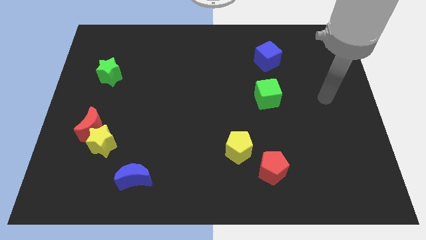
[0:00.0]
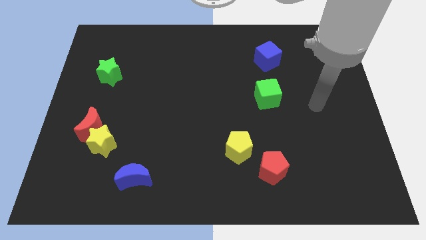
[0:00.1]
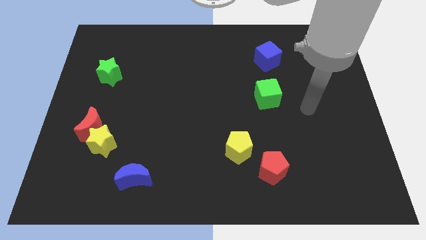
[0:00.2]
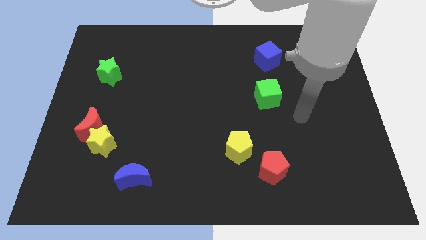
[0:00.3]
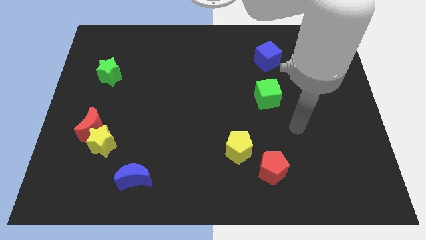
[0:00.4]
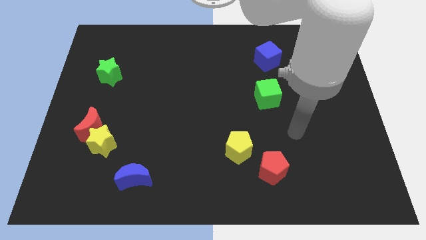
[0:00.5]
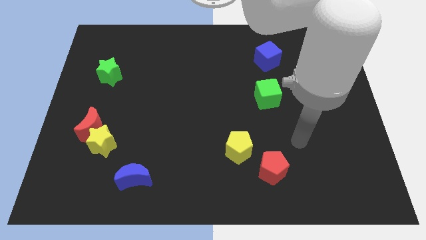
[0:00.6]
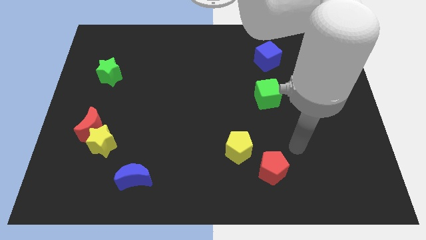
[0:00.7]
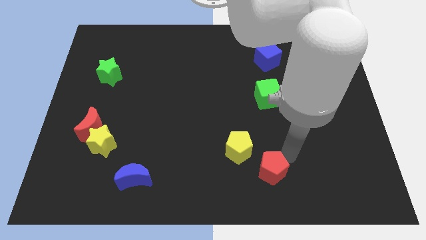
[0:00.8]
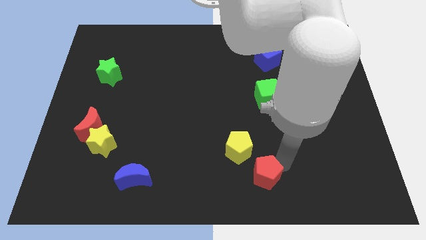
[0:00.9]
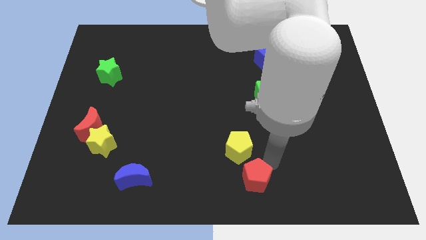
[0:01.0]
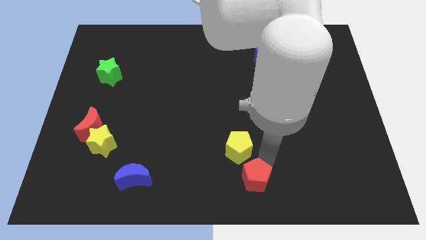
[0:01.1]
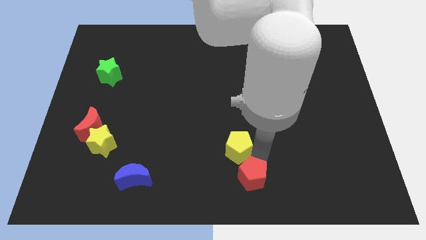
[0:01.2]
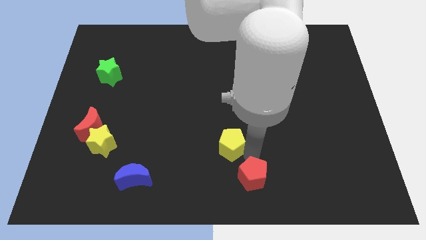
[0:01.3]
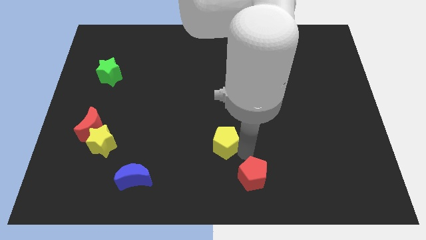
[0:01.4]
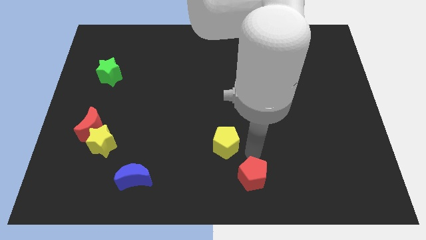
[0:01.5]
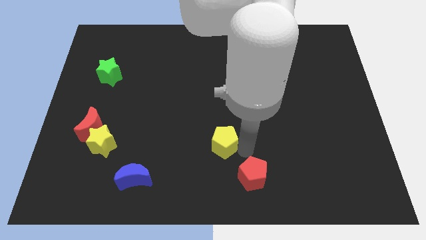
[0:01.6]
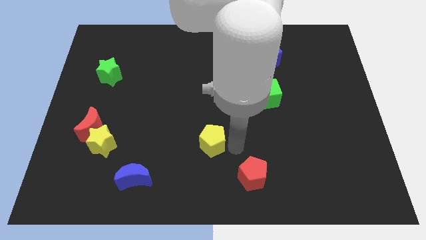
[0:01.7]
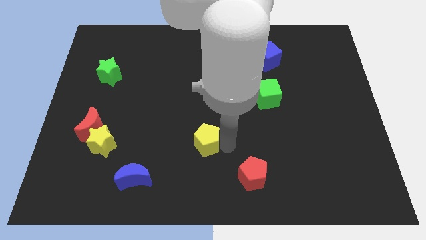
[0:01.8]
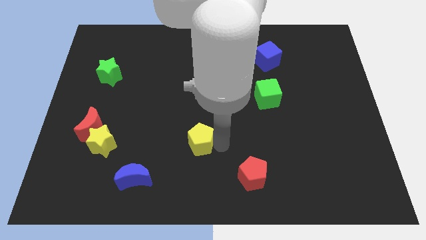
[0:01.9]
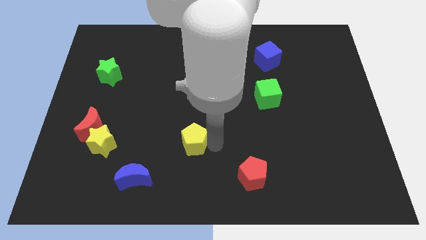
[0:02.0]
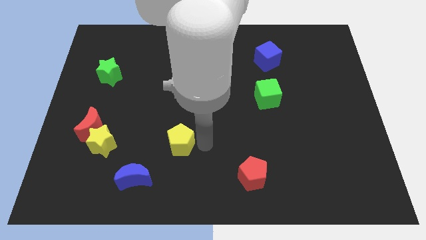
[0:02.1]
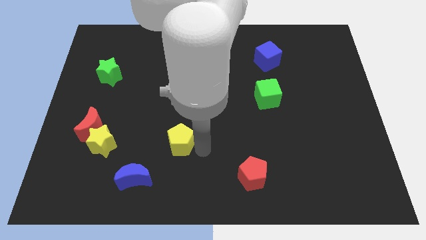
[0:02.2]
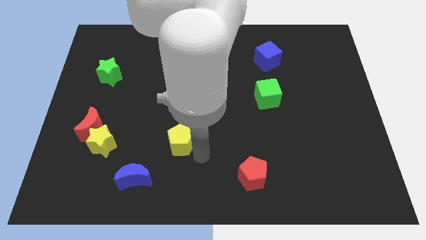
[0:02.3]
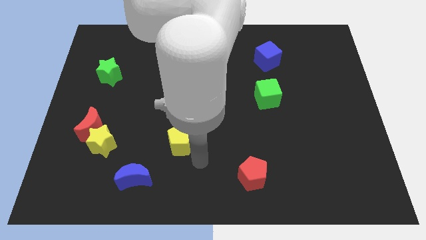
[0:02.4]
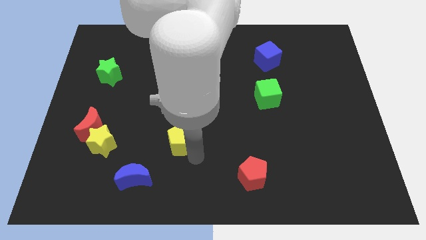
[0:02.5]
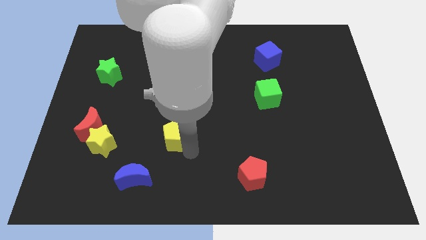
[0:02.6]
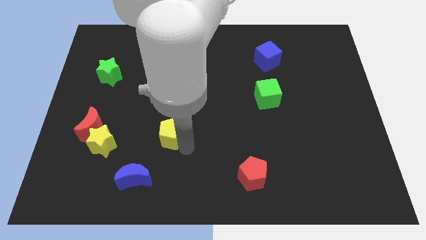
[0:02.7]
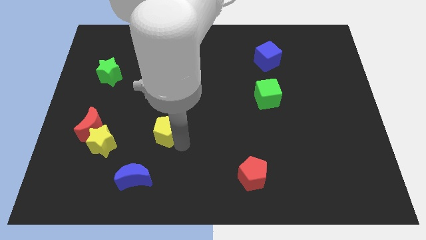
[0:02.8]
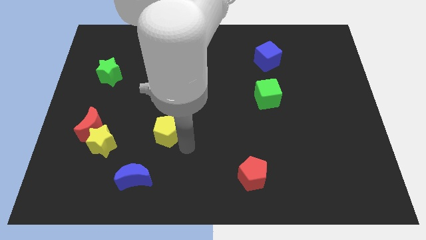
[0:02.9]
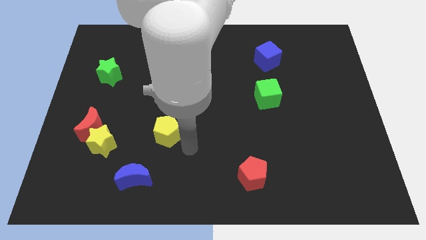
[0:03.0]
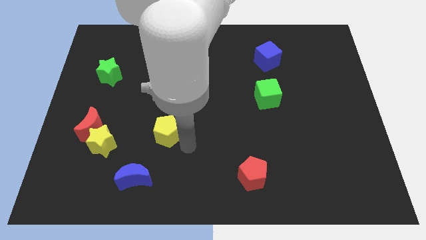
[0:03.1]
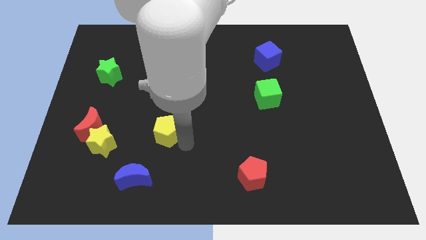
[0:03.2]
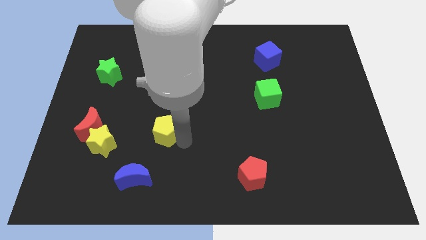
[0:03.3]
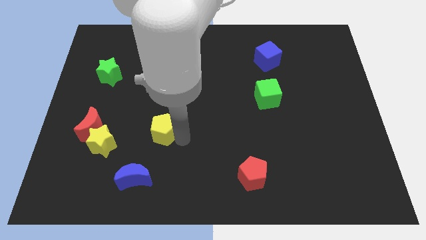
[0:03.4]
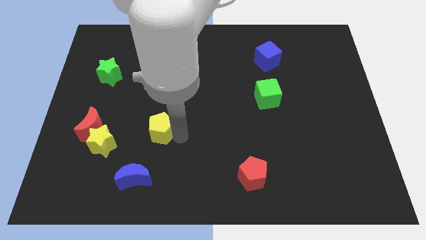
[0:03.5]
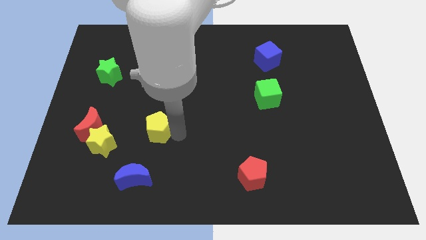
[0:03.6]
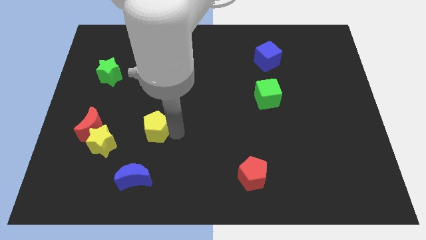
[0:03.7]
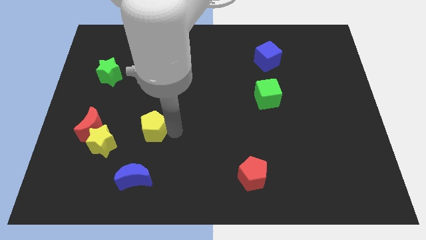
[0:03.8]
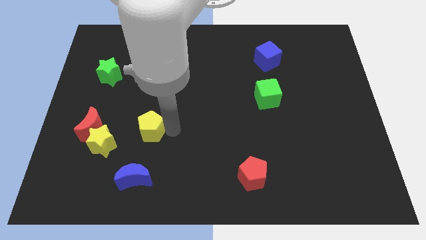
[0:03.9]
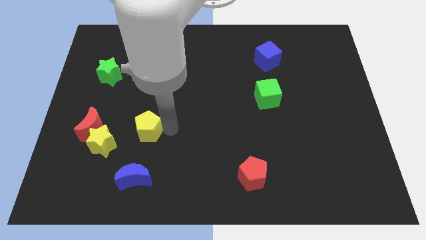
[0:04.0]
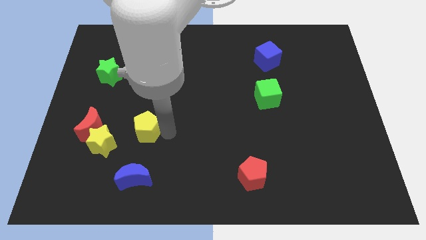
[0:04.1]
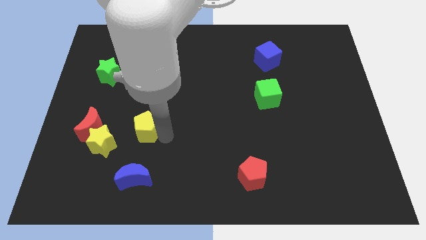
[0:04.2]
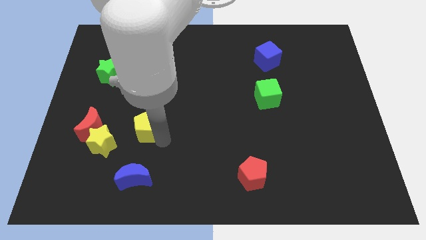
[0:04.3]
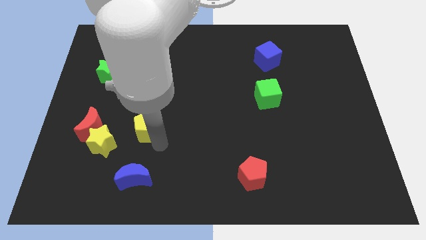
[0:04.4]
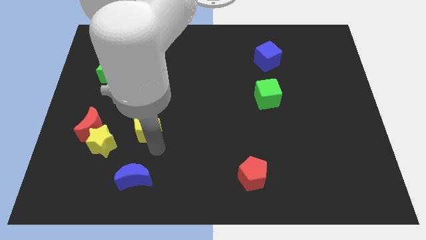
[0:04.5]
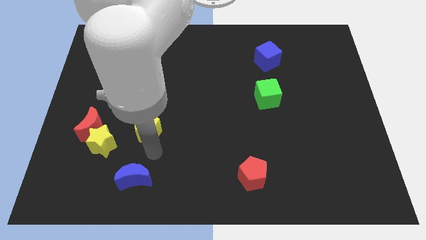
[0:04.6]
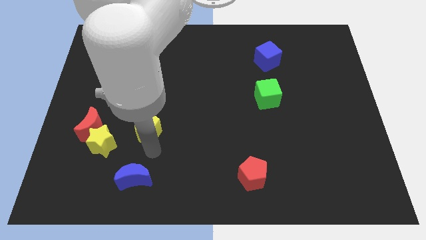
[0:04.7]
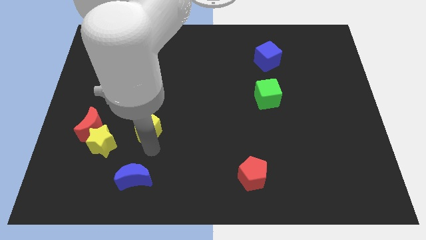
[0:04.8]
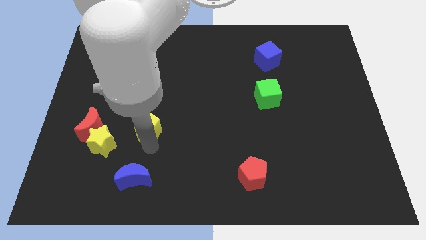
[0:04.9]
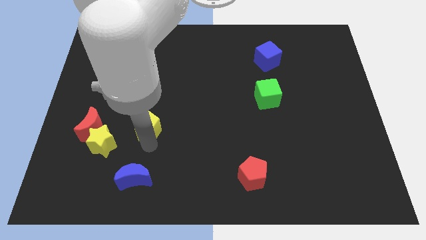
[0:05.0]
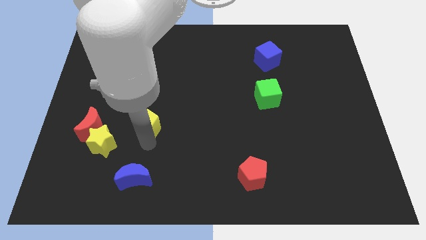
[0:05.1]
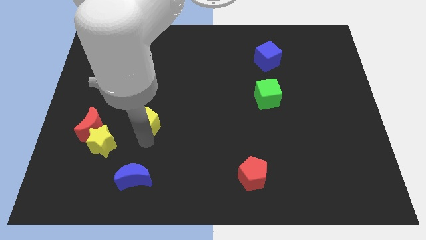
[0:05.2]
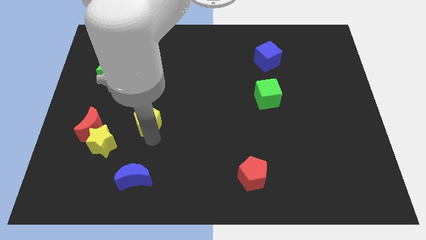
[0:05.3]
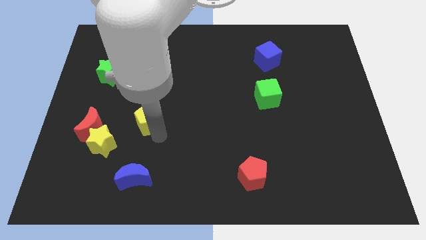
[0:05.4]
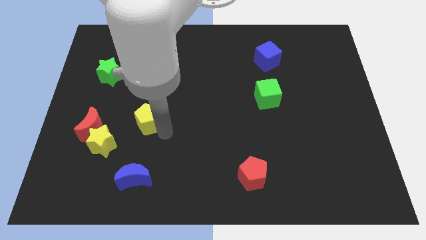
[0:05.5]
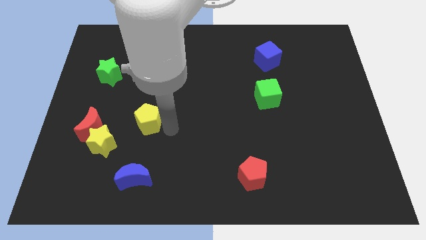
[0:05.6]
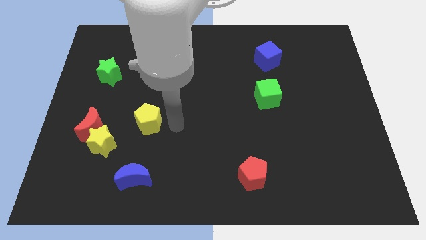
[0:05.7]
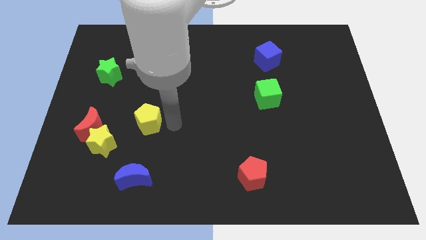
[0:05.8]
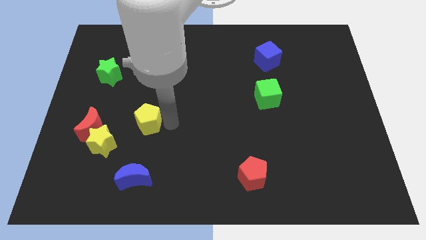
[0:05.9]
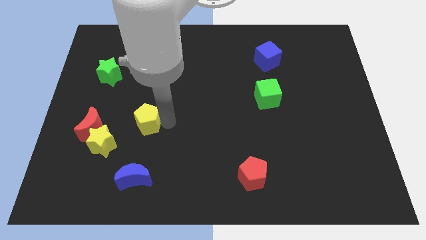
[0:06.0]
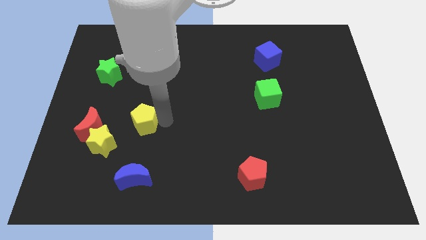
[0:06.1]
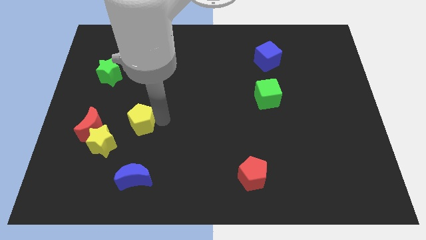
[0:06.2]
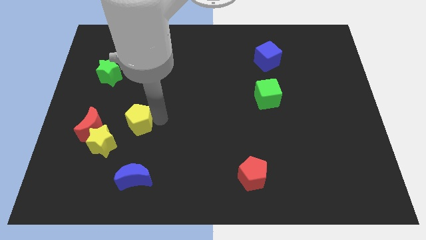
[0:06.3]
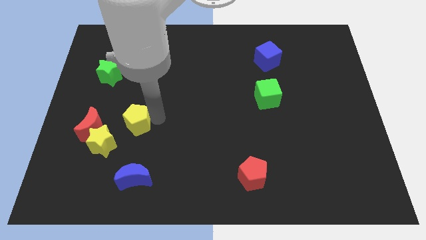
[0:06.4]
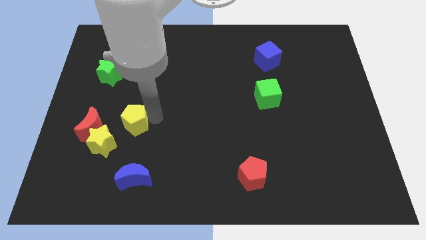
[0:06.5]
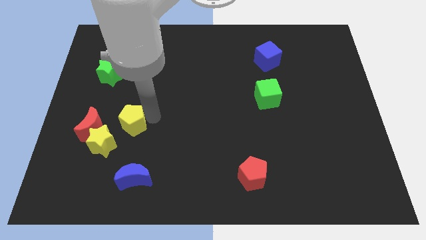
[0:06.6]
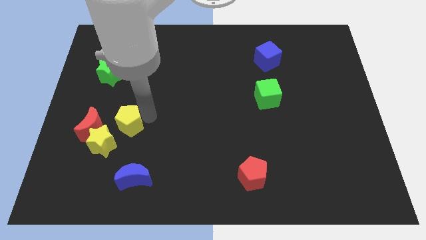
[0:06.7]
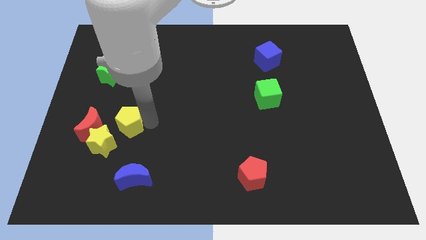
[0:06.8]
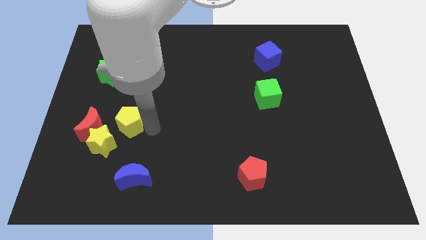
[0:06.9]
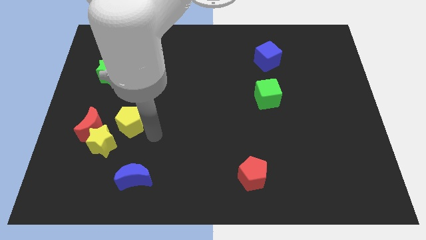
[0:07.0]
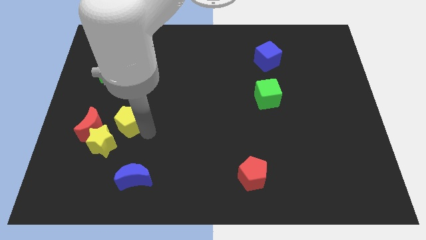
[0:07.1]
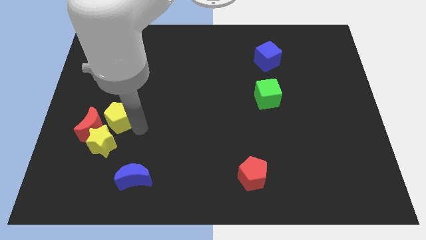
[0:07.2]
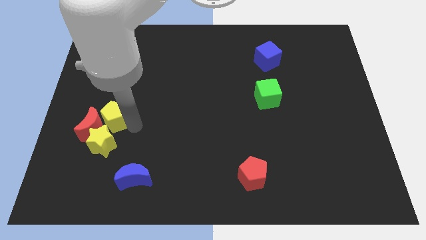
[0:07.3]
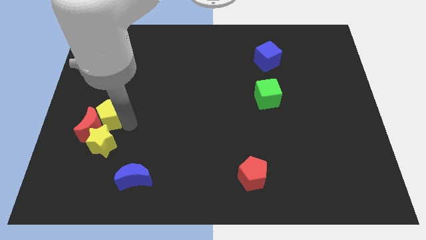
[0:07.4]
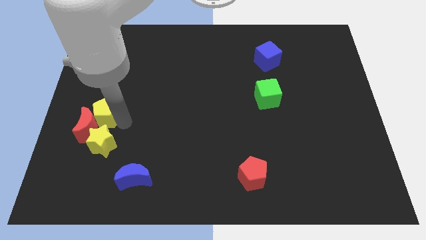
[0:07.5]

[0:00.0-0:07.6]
slide the yellow pentagon diagonally up and to the left of the yellow star
